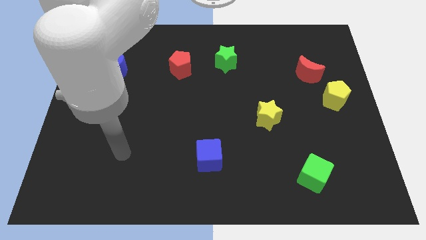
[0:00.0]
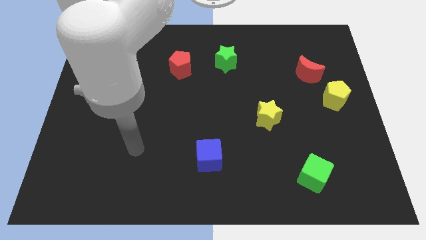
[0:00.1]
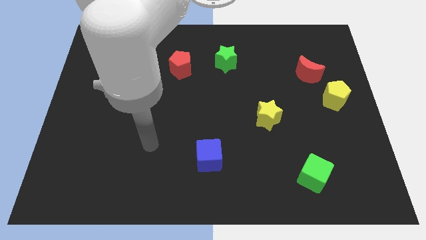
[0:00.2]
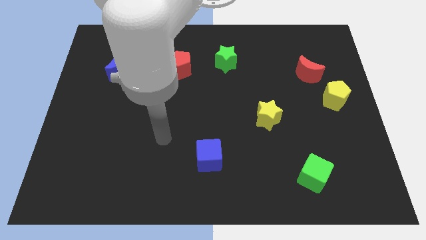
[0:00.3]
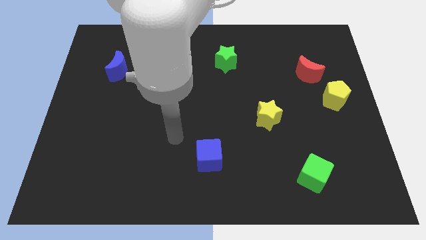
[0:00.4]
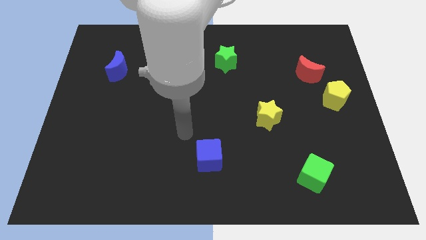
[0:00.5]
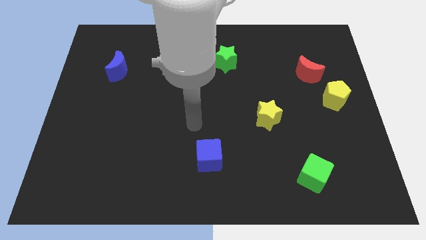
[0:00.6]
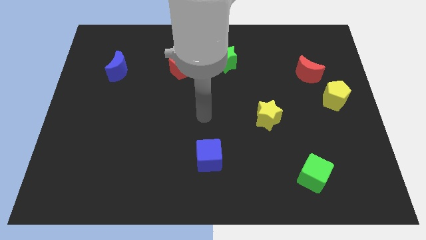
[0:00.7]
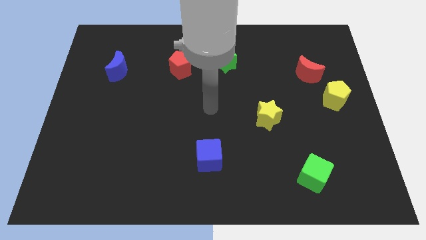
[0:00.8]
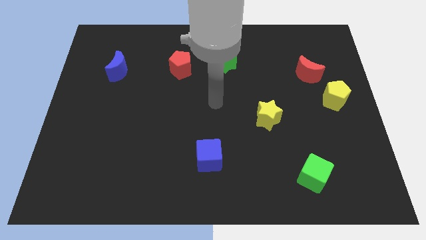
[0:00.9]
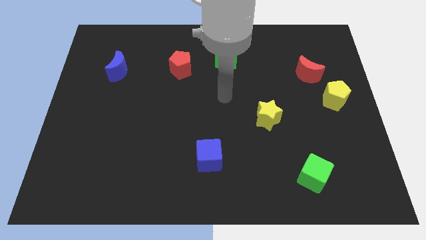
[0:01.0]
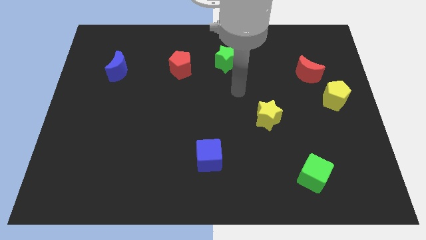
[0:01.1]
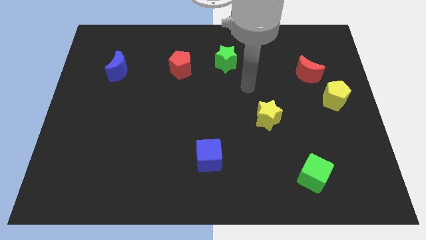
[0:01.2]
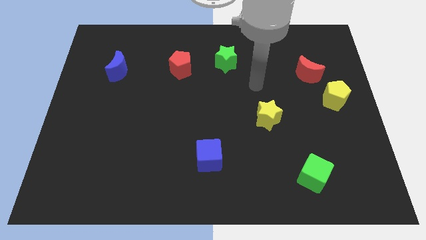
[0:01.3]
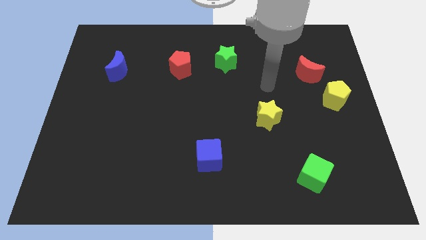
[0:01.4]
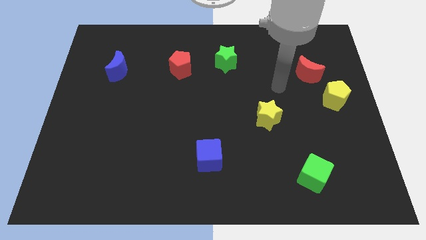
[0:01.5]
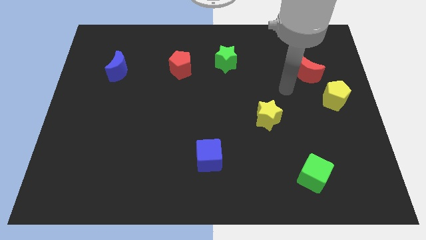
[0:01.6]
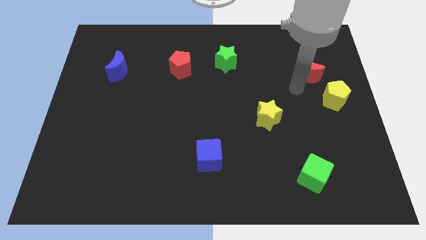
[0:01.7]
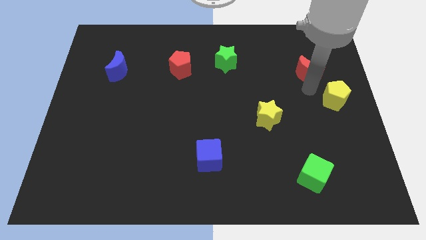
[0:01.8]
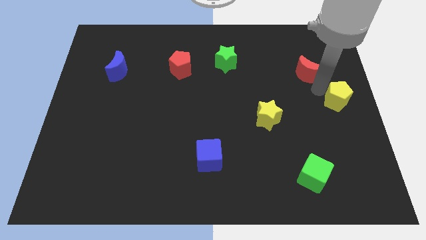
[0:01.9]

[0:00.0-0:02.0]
separate the red moon from the yellow pentagon

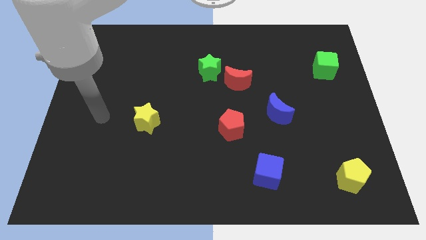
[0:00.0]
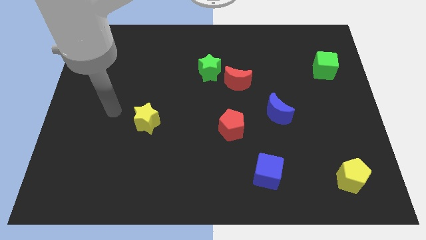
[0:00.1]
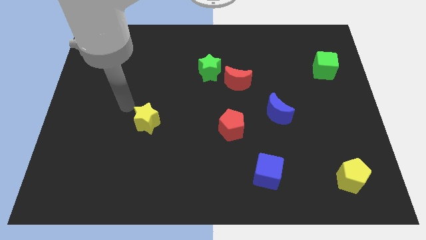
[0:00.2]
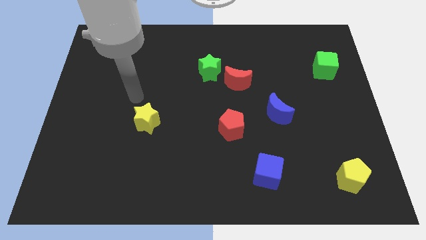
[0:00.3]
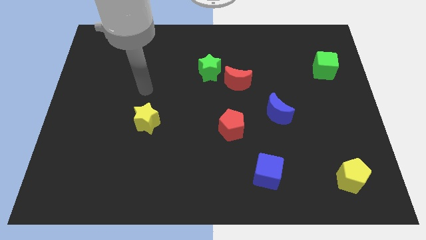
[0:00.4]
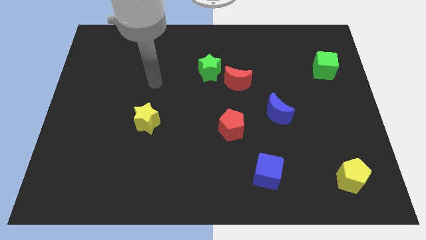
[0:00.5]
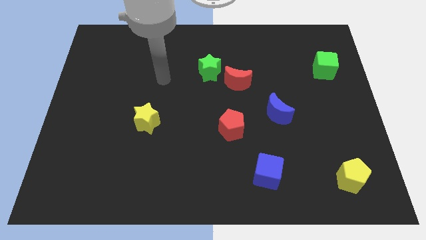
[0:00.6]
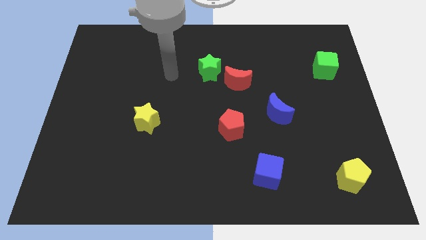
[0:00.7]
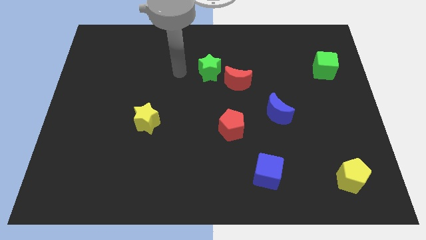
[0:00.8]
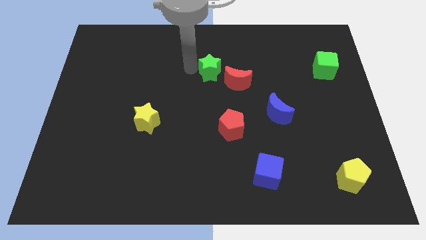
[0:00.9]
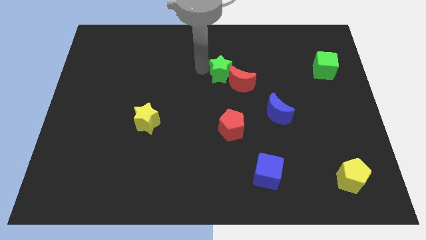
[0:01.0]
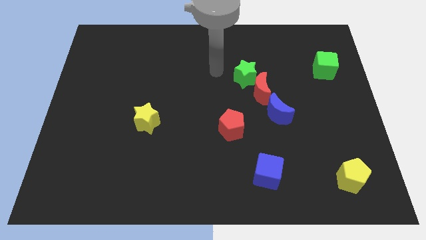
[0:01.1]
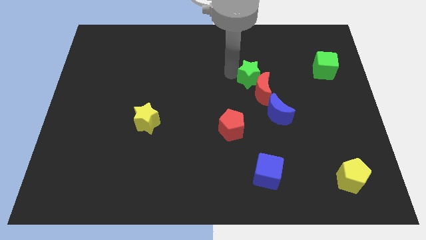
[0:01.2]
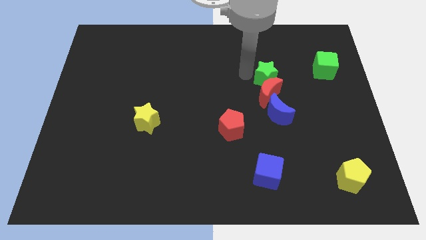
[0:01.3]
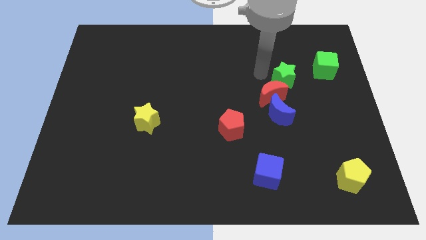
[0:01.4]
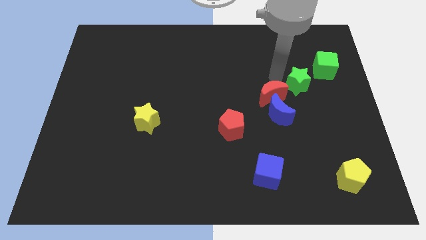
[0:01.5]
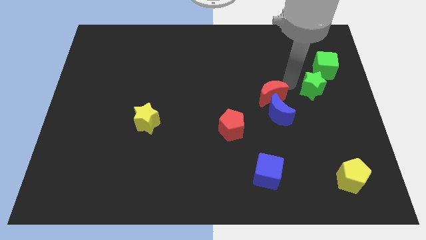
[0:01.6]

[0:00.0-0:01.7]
move the red moon away from the green star

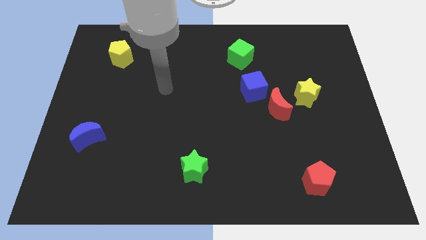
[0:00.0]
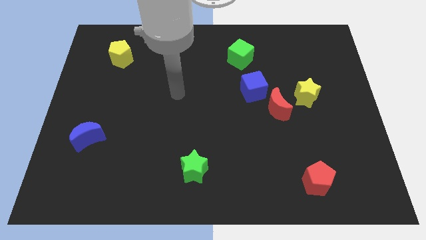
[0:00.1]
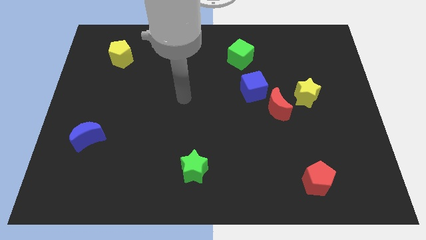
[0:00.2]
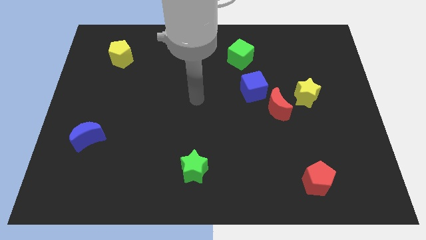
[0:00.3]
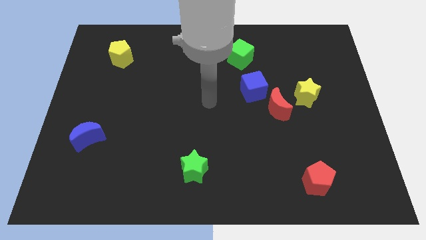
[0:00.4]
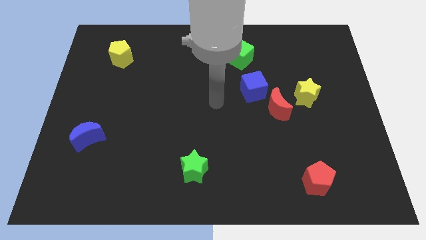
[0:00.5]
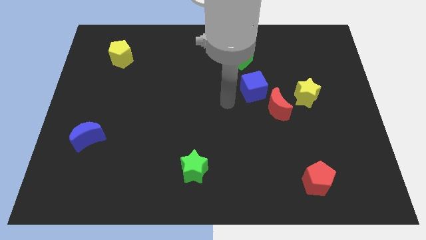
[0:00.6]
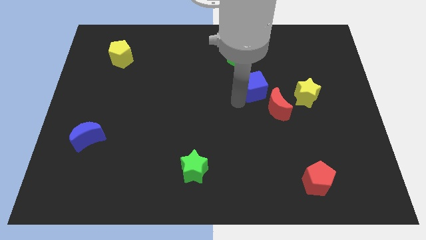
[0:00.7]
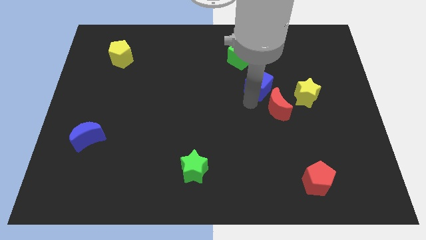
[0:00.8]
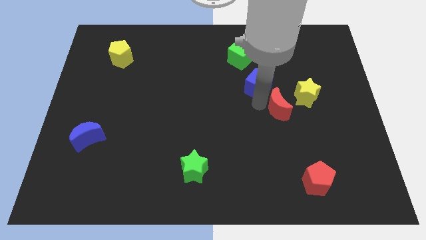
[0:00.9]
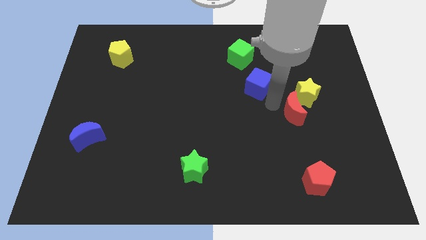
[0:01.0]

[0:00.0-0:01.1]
separate the blue cube from the red moon

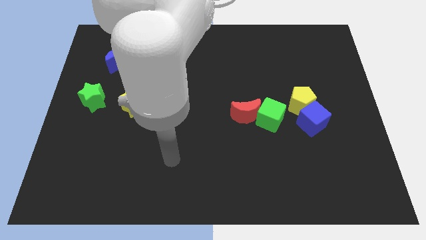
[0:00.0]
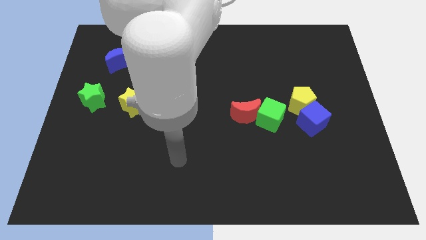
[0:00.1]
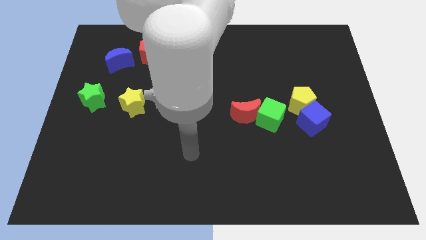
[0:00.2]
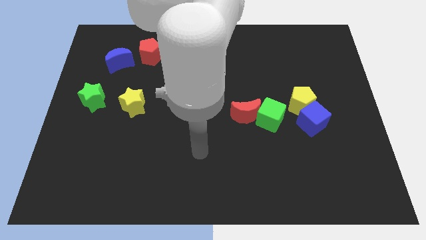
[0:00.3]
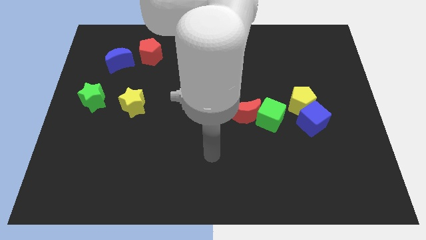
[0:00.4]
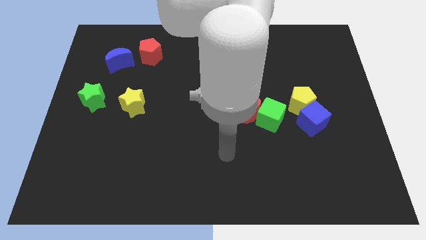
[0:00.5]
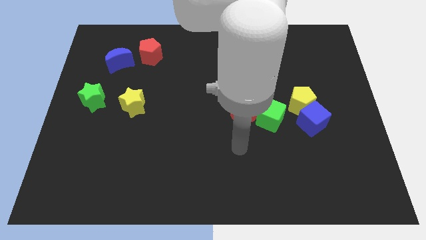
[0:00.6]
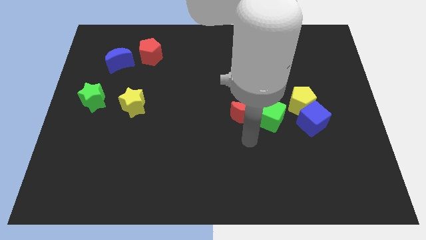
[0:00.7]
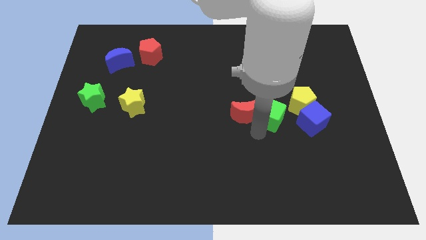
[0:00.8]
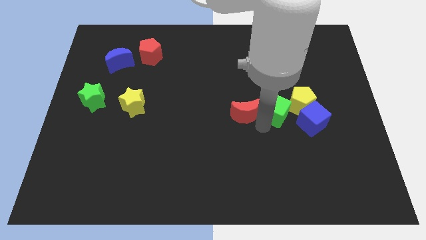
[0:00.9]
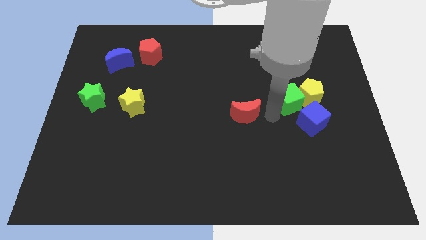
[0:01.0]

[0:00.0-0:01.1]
pull the red moon apart from the green cube

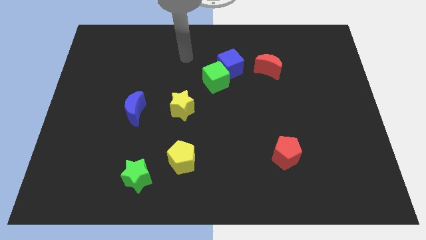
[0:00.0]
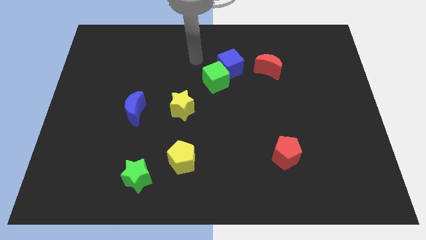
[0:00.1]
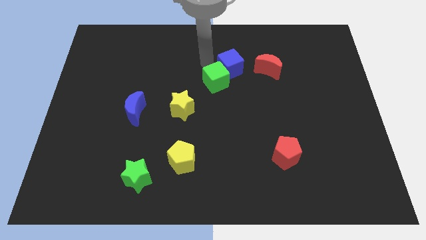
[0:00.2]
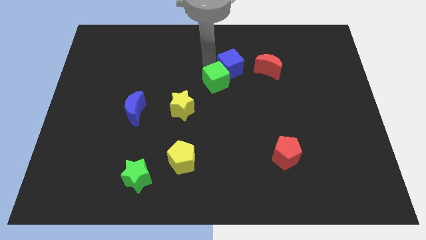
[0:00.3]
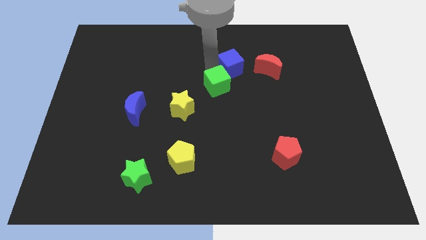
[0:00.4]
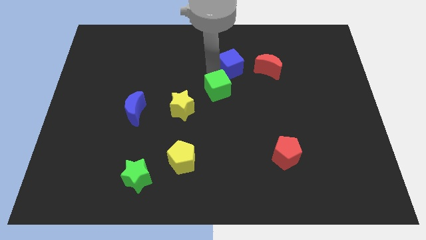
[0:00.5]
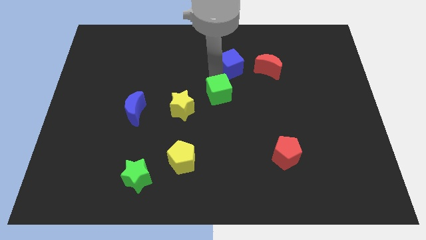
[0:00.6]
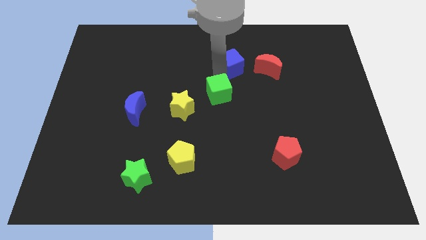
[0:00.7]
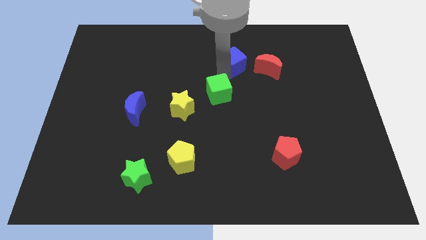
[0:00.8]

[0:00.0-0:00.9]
separate the green cube from the blue cube

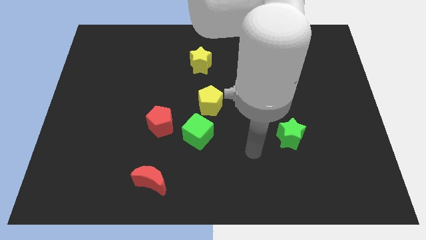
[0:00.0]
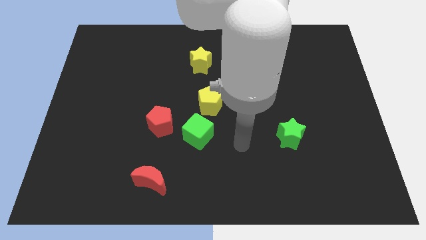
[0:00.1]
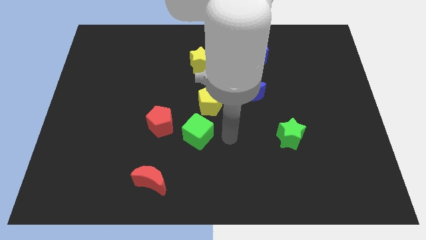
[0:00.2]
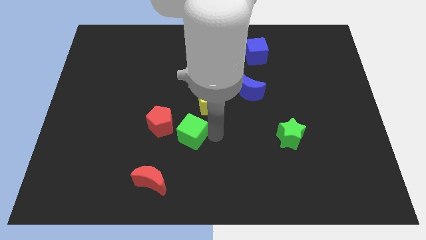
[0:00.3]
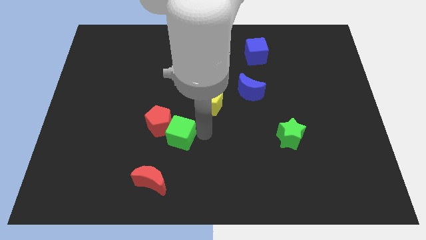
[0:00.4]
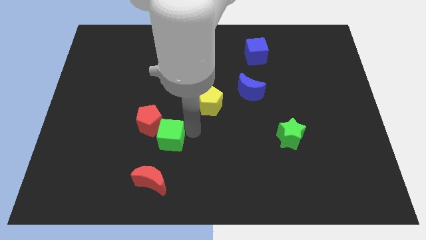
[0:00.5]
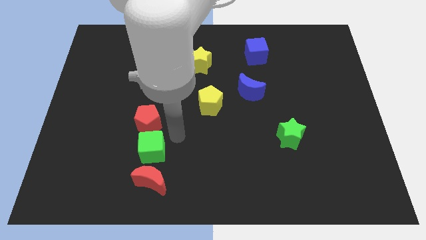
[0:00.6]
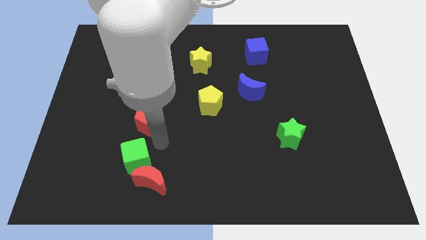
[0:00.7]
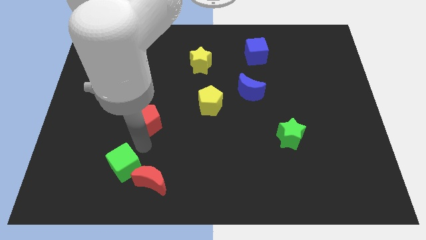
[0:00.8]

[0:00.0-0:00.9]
separate the red pentagon from the green cube

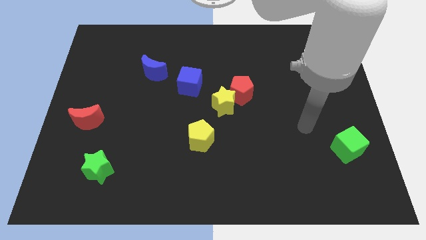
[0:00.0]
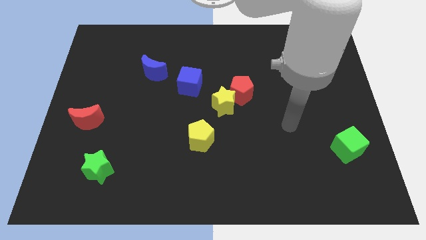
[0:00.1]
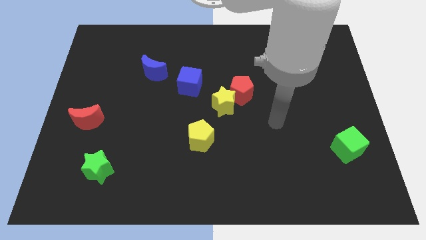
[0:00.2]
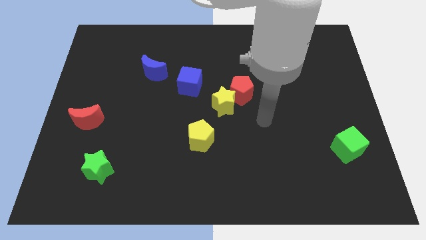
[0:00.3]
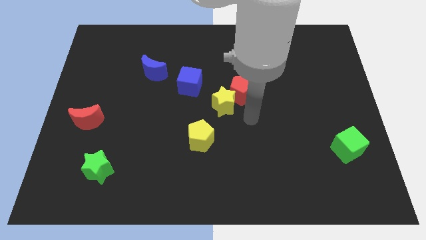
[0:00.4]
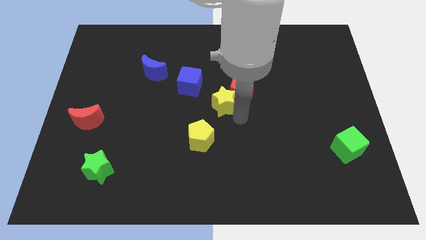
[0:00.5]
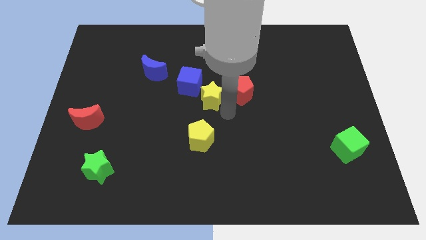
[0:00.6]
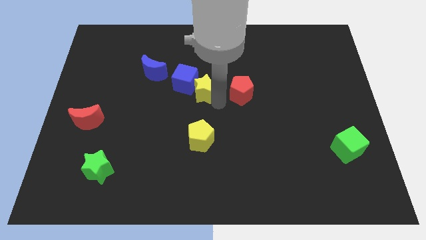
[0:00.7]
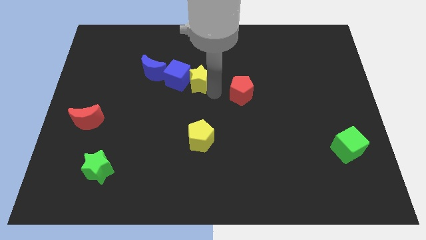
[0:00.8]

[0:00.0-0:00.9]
separate the red pentagon from the yellow star

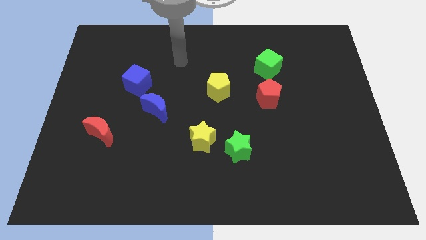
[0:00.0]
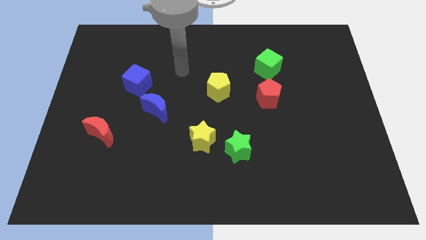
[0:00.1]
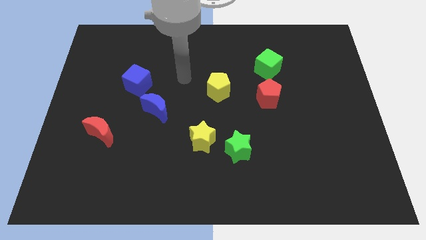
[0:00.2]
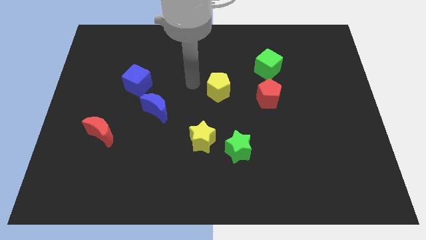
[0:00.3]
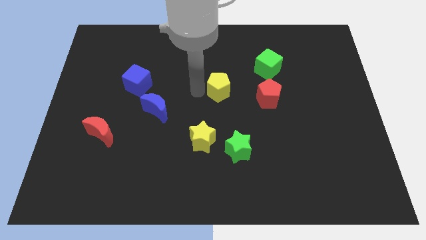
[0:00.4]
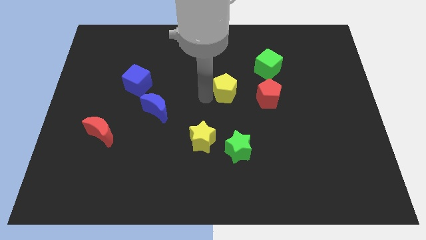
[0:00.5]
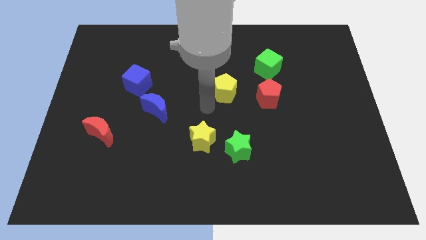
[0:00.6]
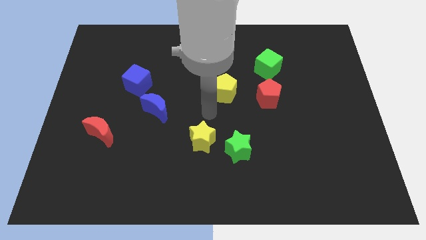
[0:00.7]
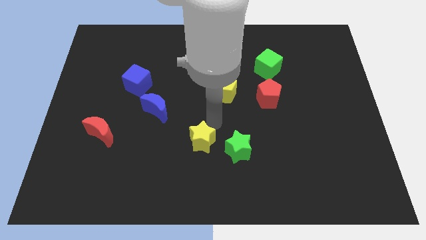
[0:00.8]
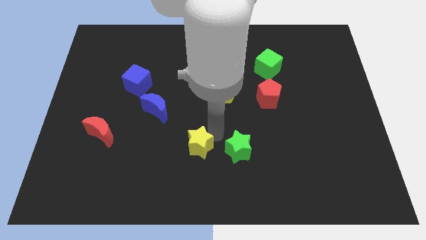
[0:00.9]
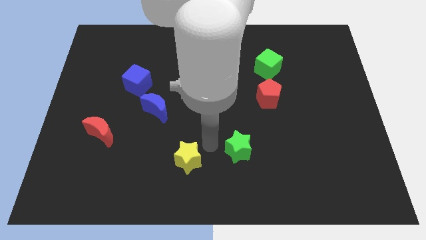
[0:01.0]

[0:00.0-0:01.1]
pull the green star apart from the yellow star
